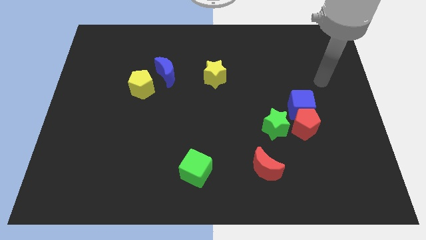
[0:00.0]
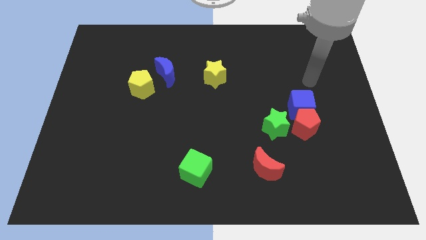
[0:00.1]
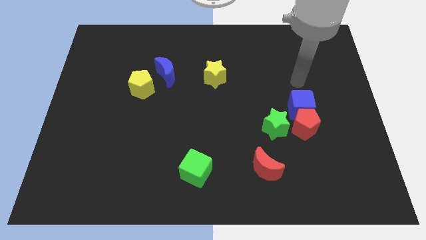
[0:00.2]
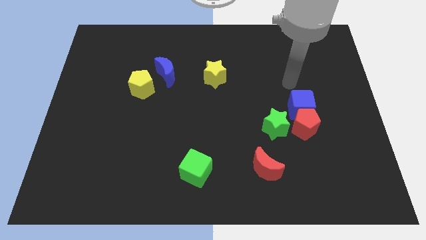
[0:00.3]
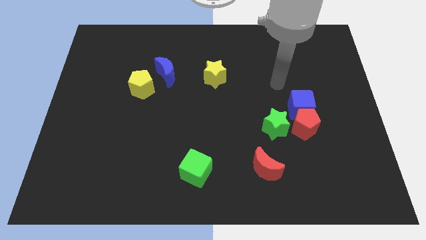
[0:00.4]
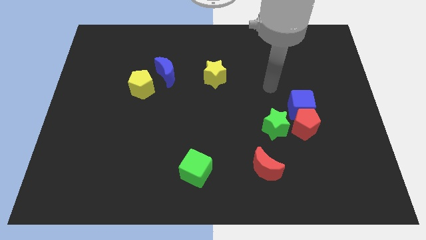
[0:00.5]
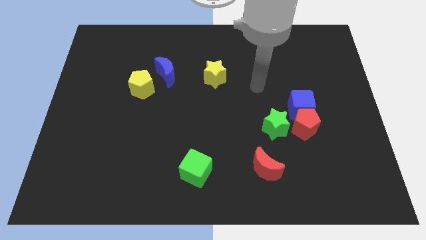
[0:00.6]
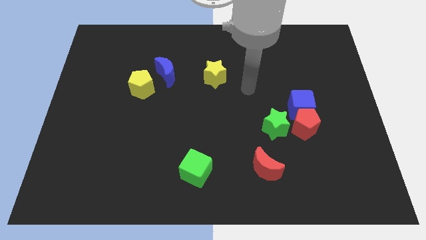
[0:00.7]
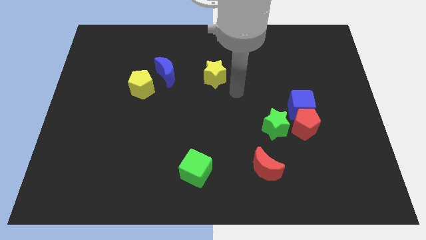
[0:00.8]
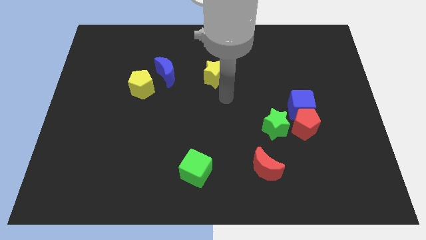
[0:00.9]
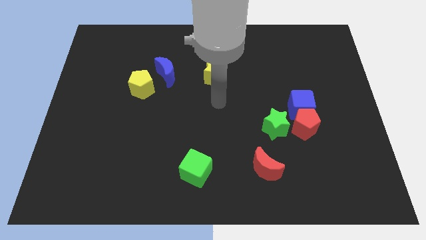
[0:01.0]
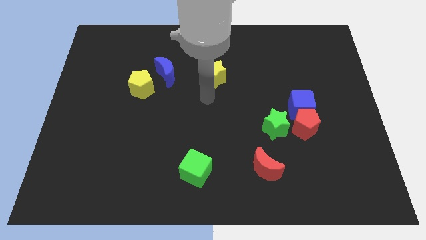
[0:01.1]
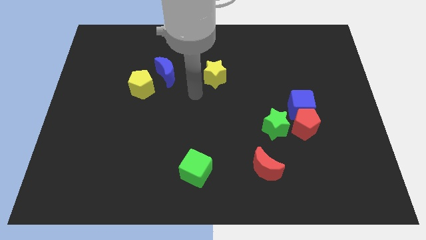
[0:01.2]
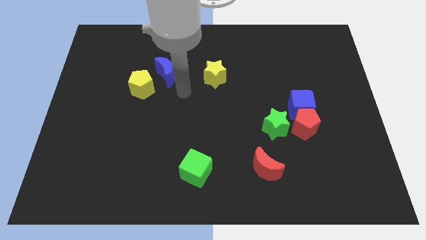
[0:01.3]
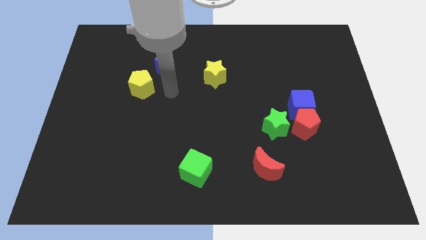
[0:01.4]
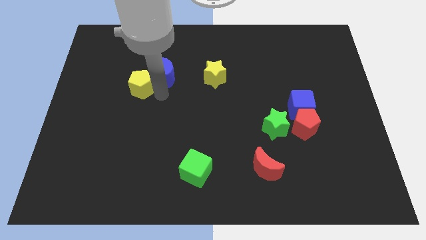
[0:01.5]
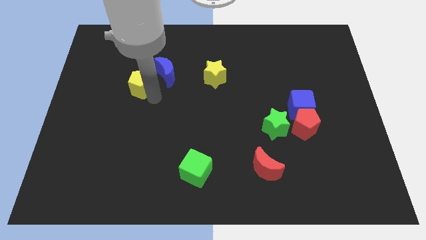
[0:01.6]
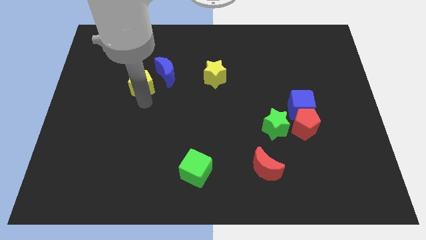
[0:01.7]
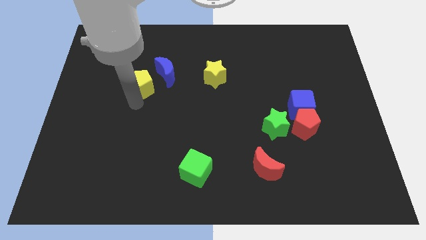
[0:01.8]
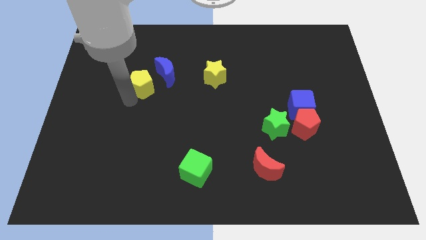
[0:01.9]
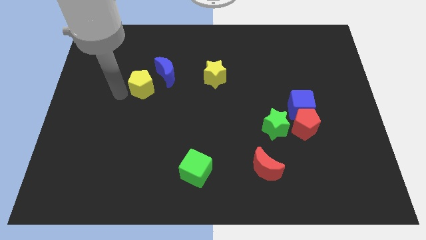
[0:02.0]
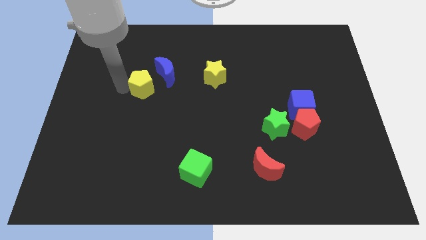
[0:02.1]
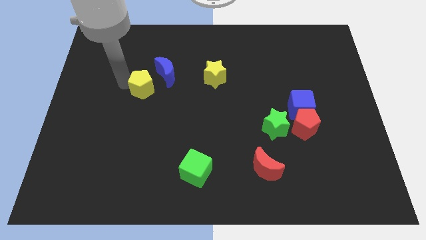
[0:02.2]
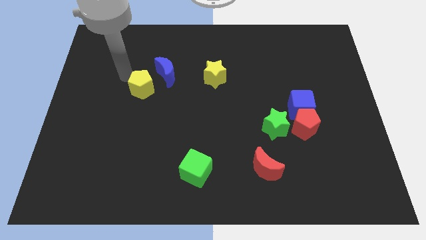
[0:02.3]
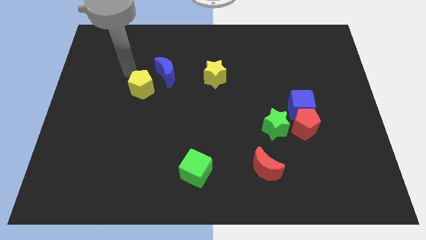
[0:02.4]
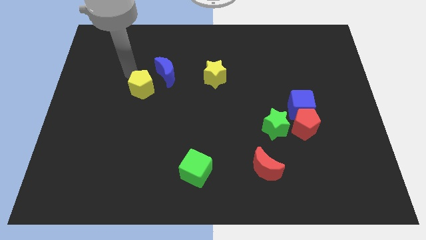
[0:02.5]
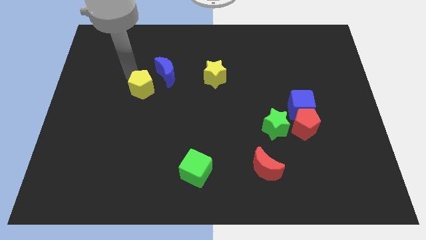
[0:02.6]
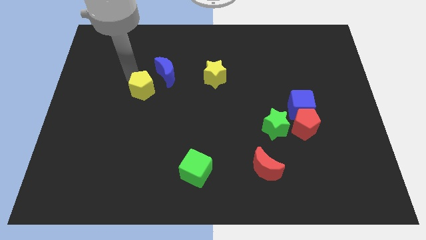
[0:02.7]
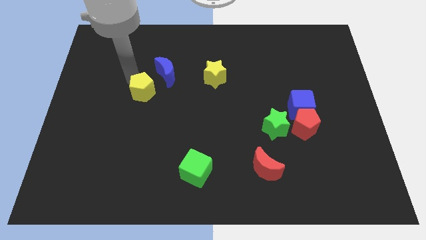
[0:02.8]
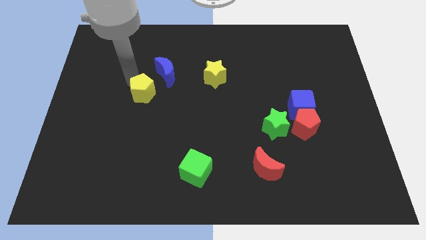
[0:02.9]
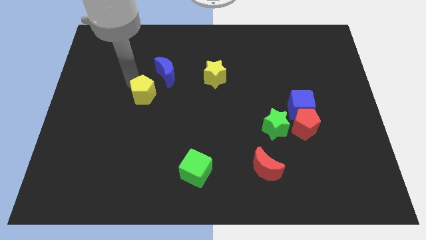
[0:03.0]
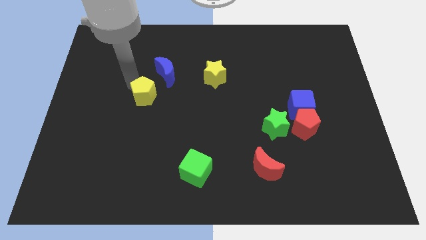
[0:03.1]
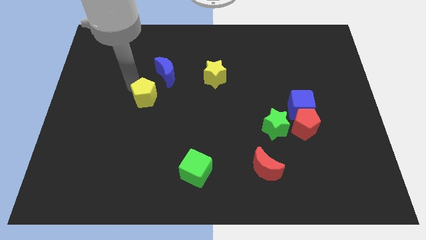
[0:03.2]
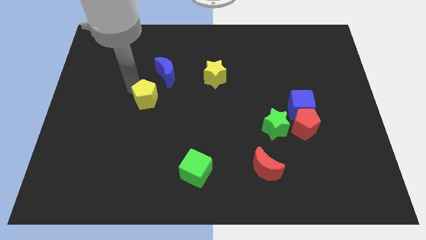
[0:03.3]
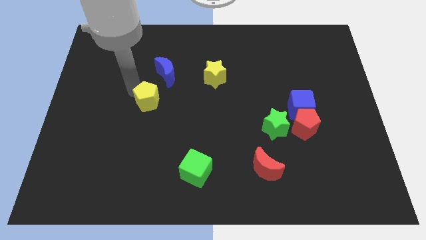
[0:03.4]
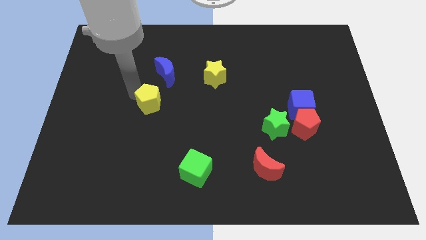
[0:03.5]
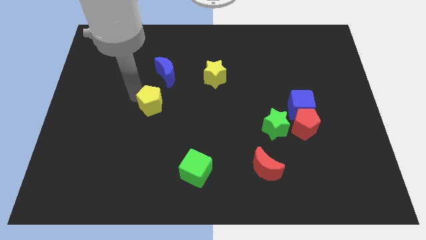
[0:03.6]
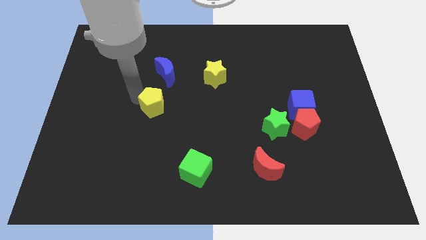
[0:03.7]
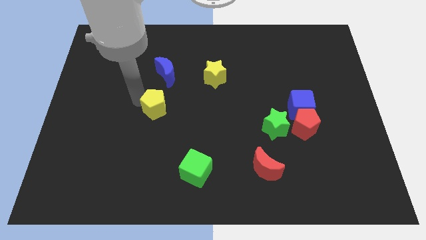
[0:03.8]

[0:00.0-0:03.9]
slightly slide the yellow pentagon downwards and right diagonally

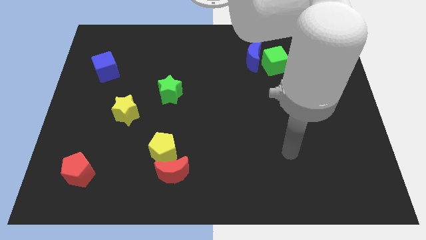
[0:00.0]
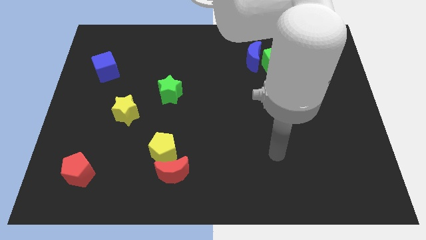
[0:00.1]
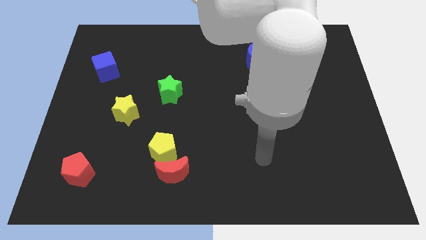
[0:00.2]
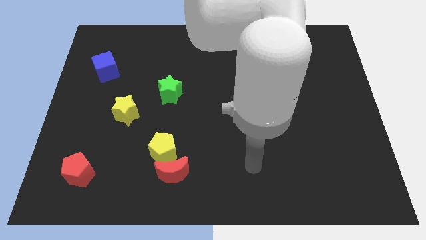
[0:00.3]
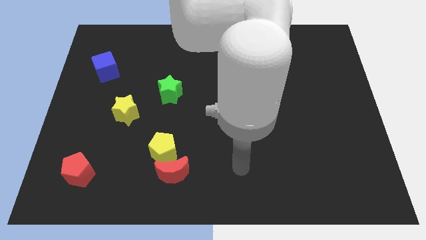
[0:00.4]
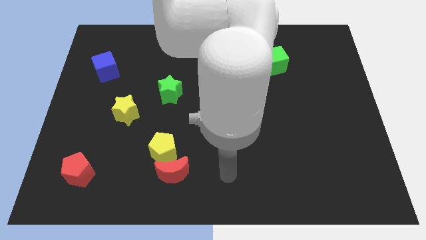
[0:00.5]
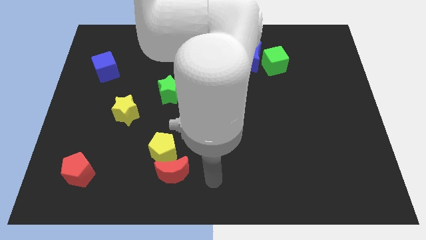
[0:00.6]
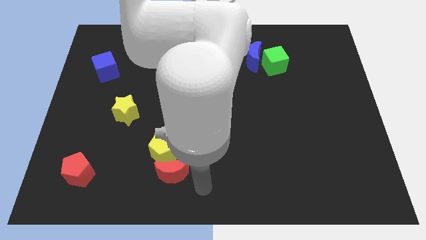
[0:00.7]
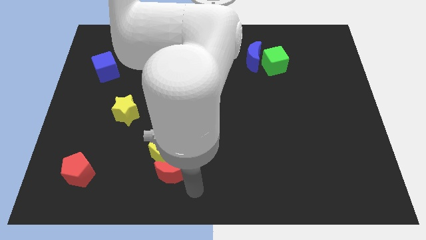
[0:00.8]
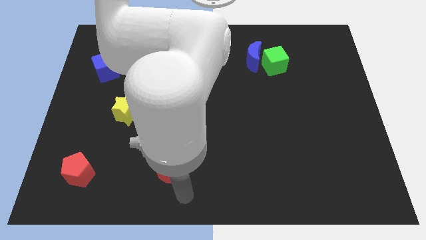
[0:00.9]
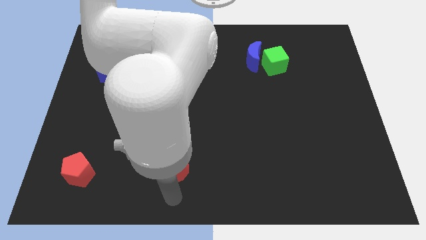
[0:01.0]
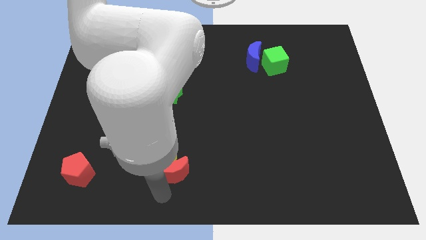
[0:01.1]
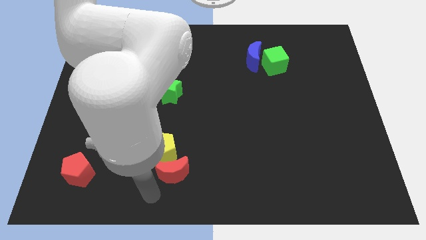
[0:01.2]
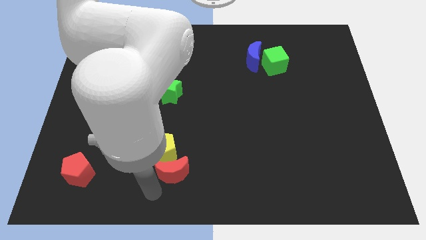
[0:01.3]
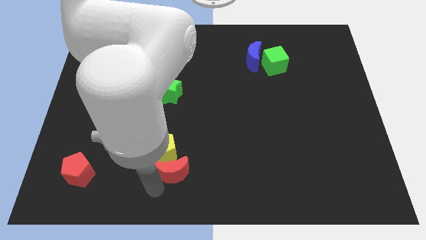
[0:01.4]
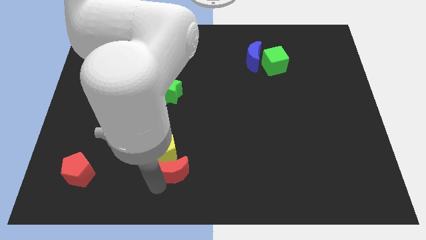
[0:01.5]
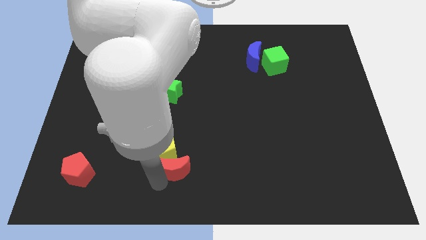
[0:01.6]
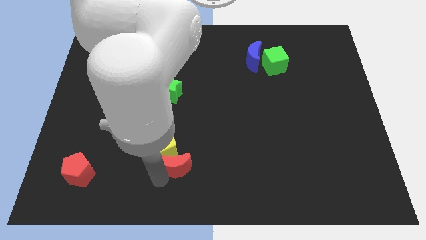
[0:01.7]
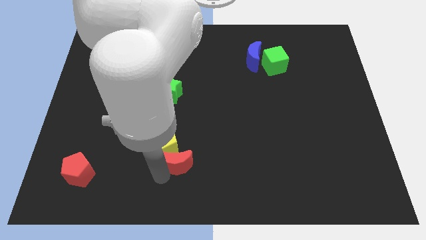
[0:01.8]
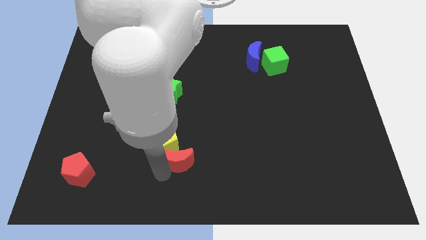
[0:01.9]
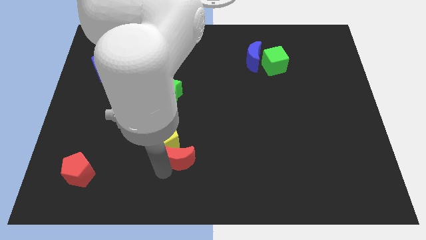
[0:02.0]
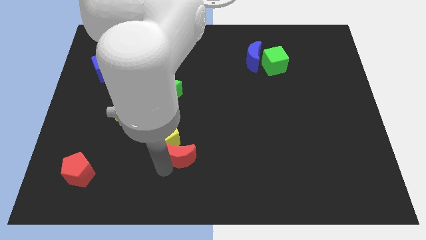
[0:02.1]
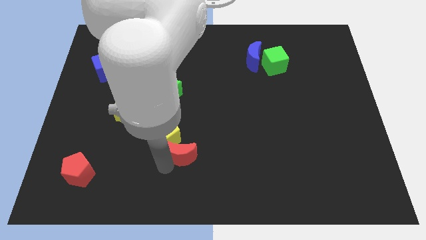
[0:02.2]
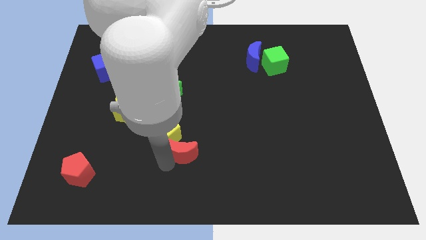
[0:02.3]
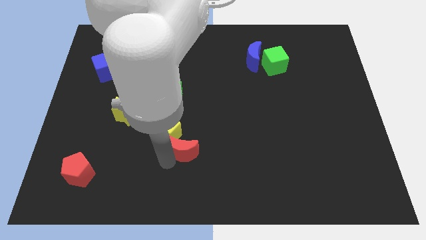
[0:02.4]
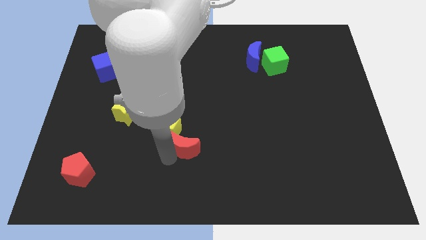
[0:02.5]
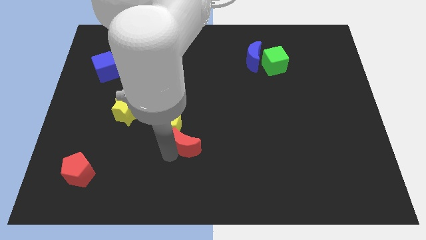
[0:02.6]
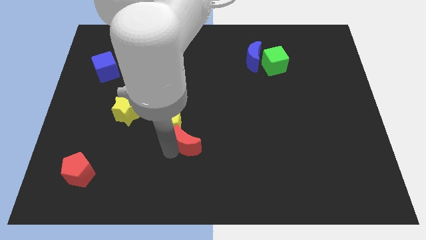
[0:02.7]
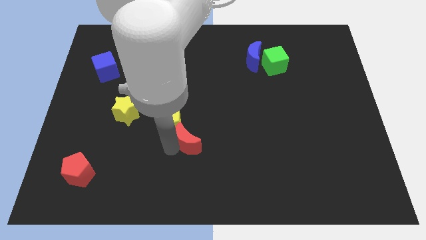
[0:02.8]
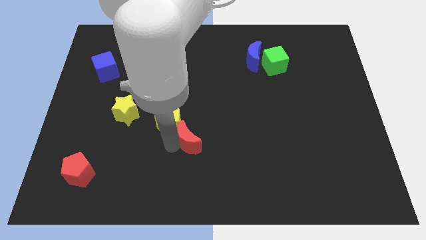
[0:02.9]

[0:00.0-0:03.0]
move the red moon diagonally up and to the right a little

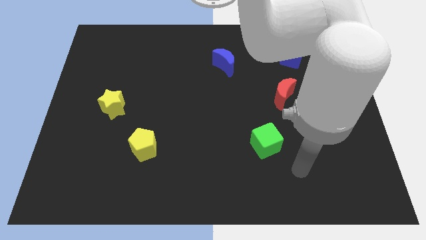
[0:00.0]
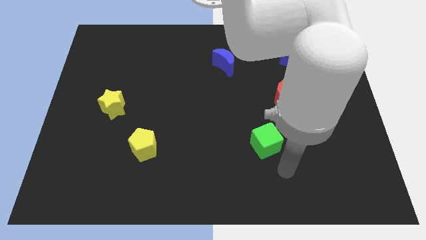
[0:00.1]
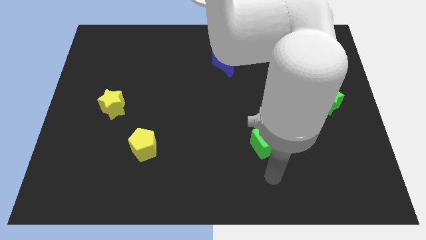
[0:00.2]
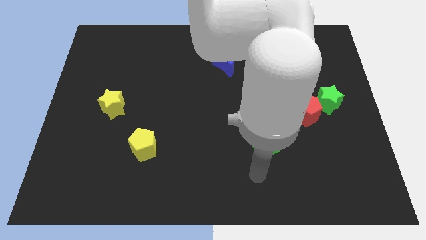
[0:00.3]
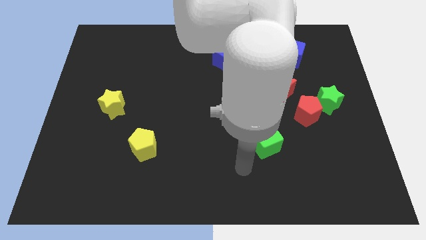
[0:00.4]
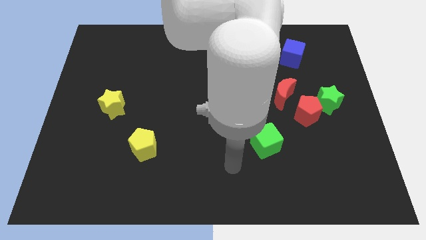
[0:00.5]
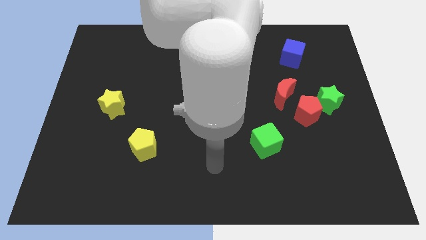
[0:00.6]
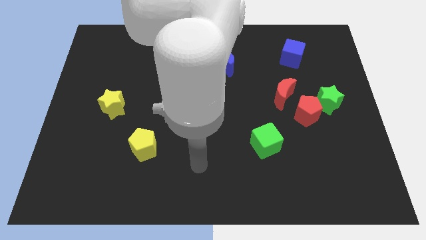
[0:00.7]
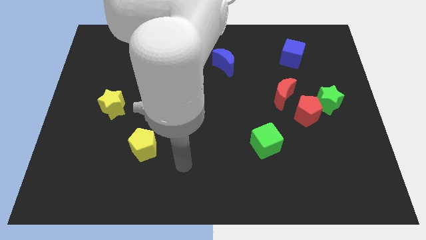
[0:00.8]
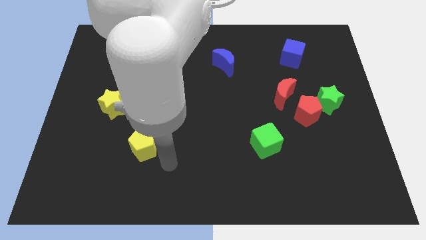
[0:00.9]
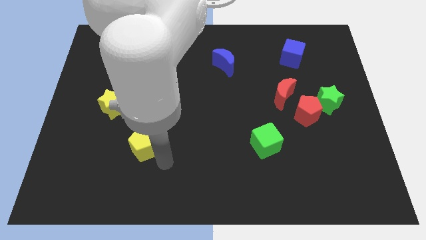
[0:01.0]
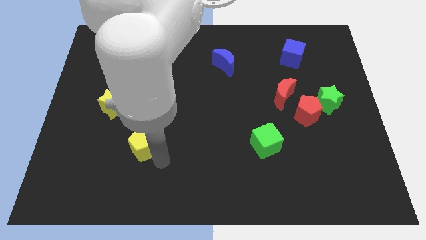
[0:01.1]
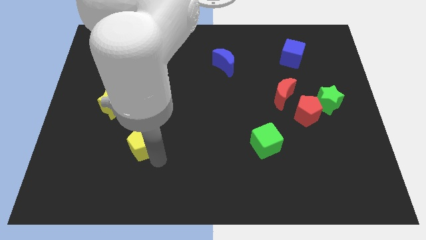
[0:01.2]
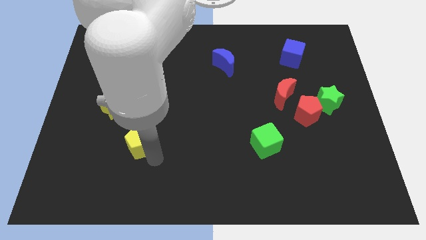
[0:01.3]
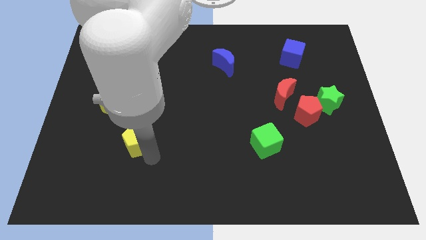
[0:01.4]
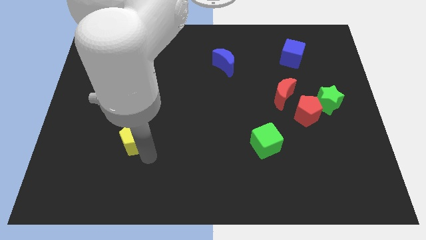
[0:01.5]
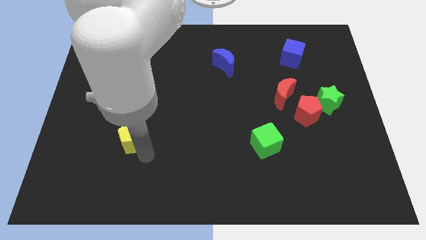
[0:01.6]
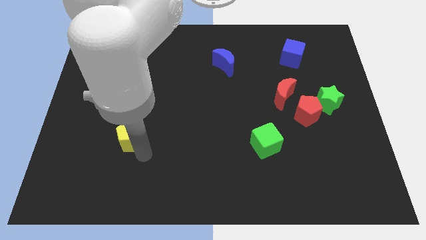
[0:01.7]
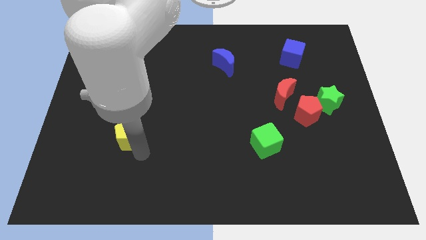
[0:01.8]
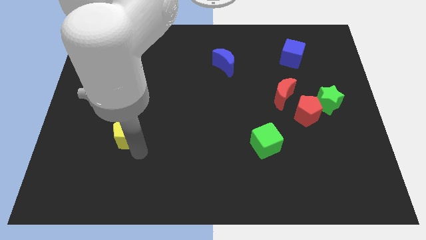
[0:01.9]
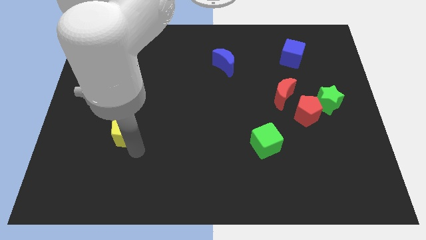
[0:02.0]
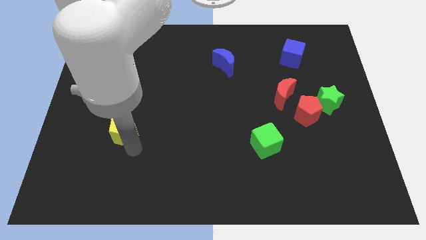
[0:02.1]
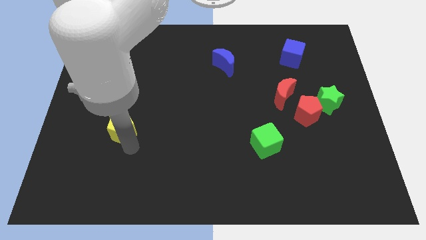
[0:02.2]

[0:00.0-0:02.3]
slightly move the yellow pentagon upwards and left
